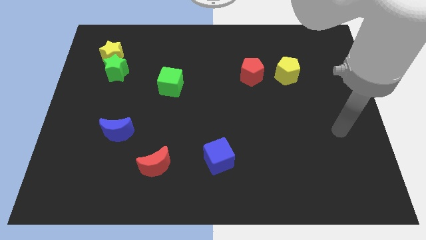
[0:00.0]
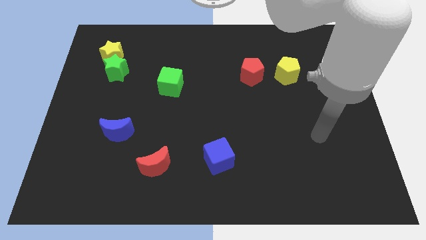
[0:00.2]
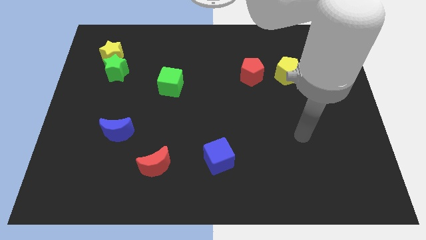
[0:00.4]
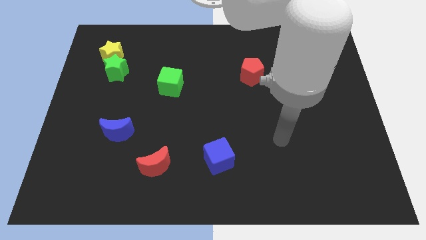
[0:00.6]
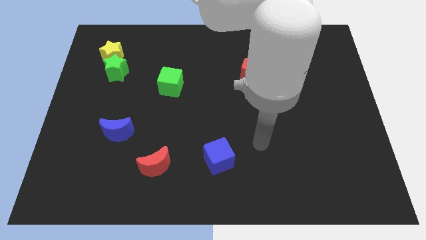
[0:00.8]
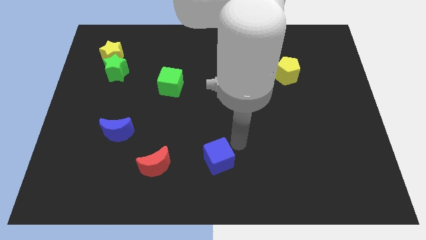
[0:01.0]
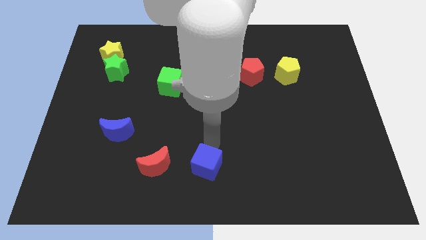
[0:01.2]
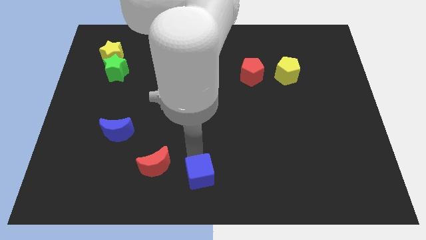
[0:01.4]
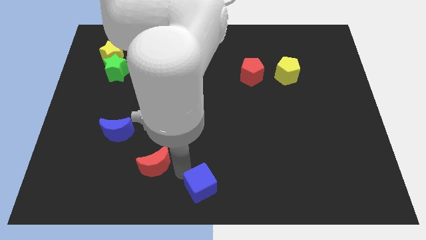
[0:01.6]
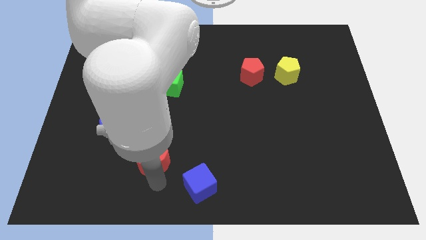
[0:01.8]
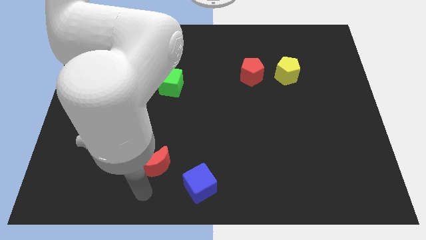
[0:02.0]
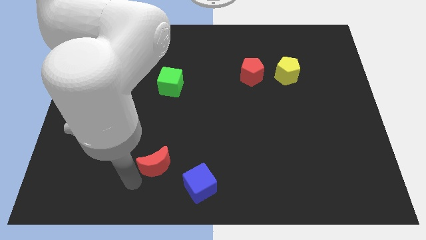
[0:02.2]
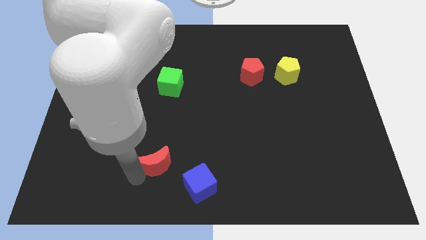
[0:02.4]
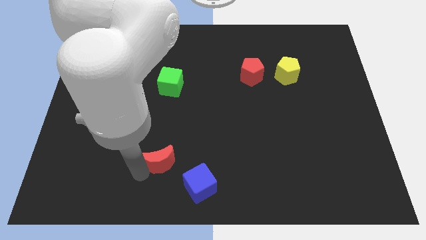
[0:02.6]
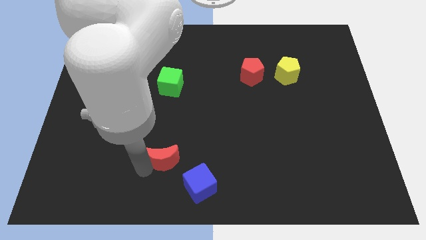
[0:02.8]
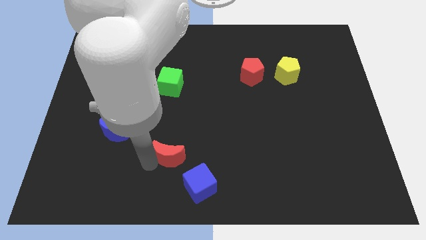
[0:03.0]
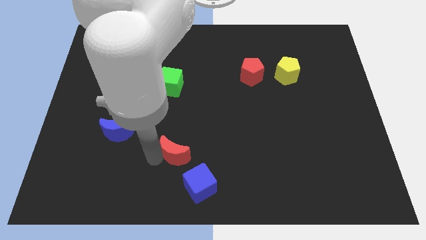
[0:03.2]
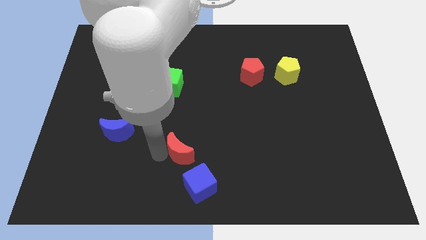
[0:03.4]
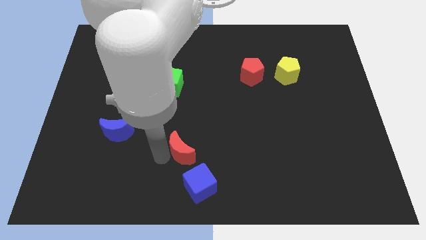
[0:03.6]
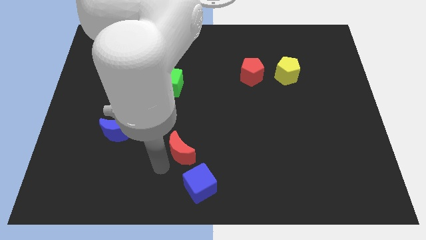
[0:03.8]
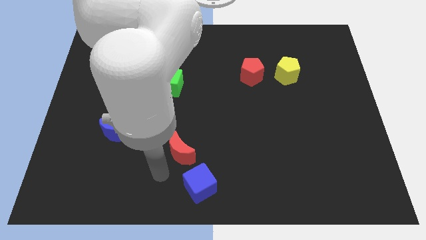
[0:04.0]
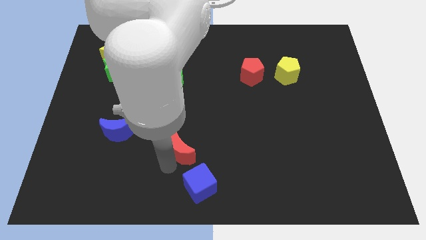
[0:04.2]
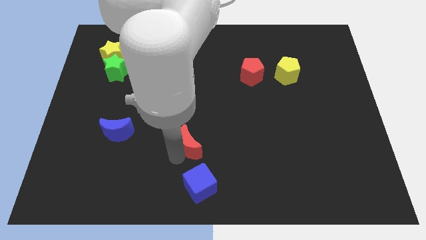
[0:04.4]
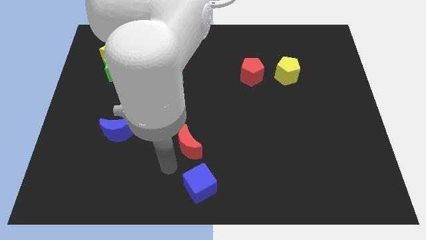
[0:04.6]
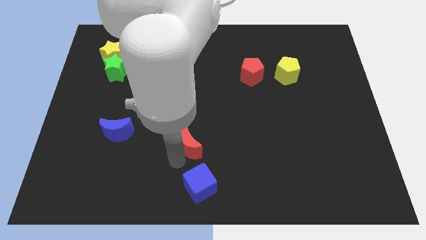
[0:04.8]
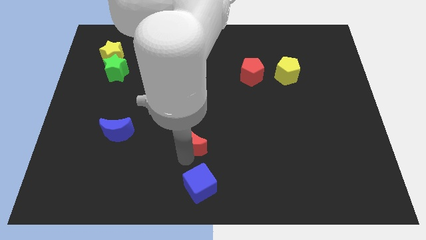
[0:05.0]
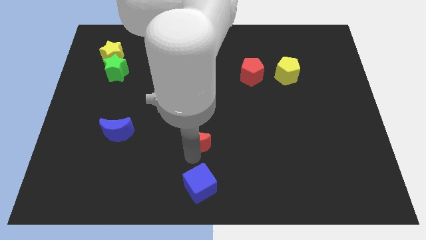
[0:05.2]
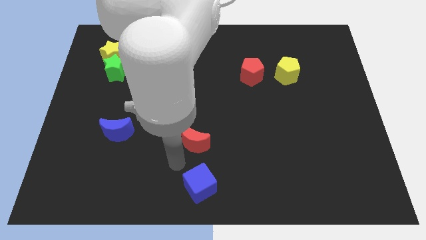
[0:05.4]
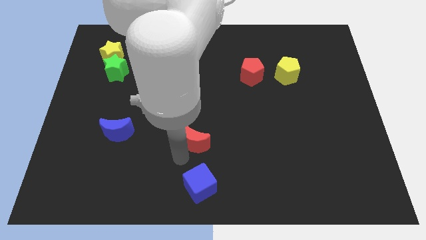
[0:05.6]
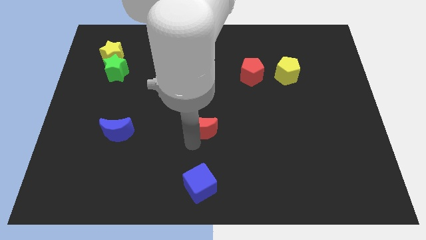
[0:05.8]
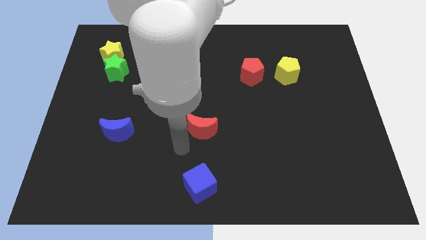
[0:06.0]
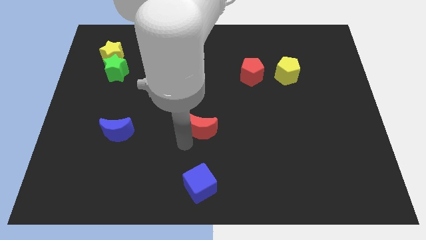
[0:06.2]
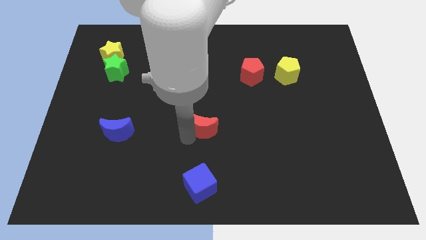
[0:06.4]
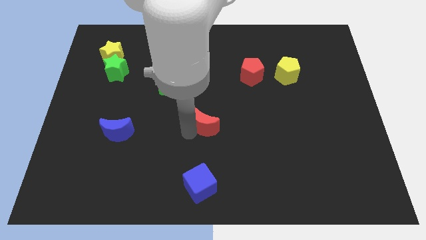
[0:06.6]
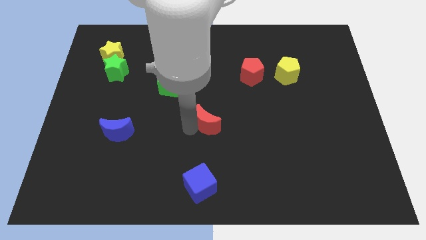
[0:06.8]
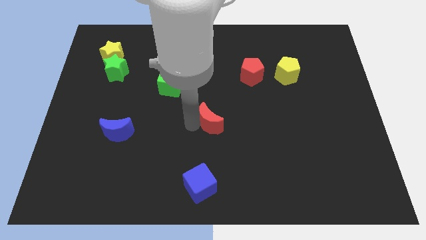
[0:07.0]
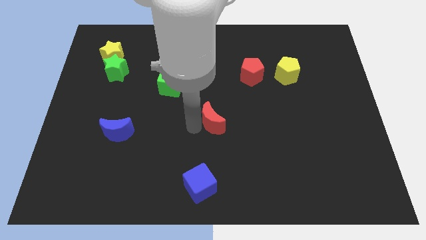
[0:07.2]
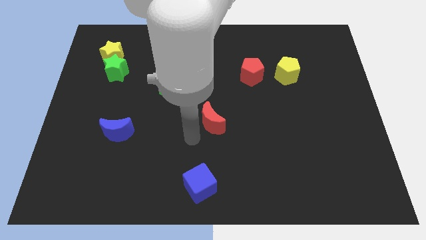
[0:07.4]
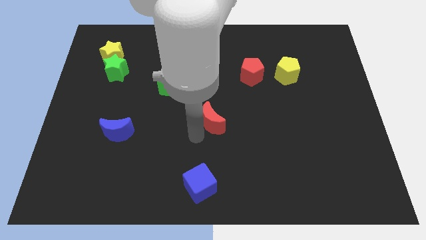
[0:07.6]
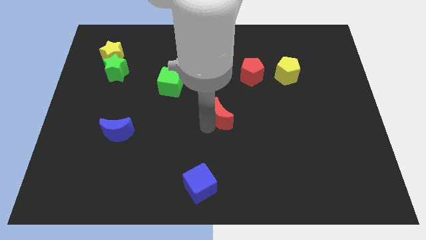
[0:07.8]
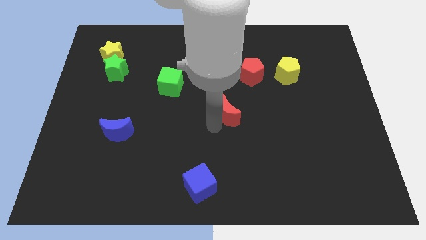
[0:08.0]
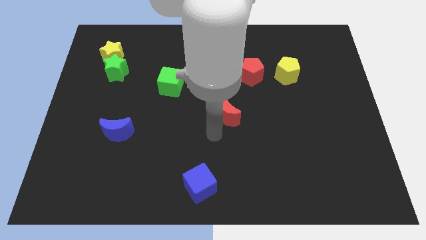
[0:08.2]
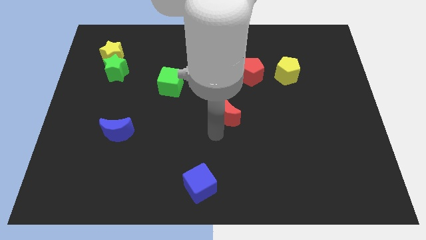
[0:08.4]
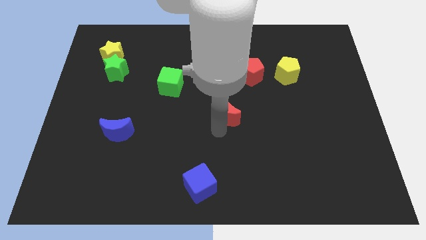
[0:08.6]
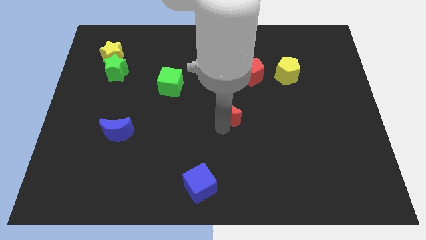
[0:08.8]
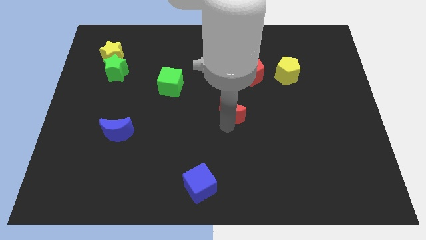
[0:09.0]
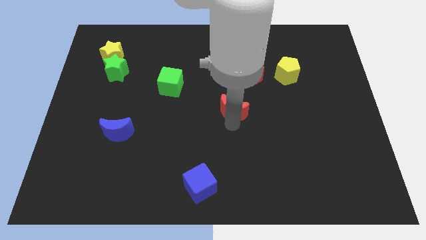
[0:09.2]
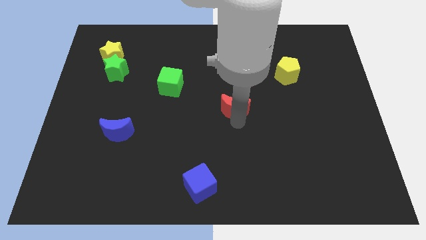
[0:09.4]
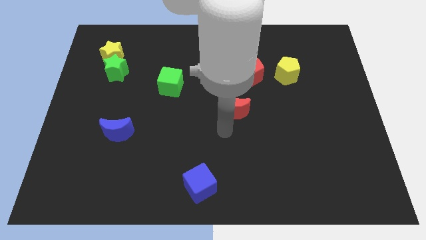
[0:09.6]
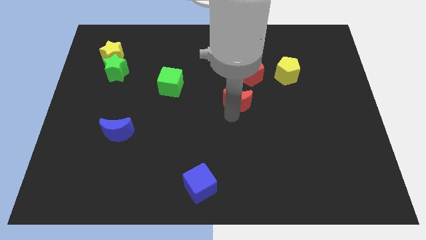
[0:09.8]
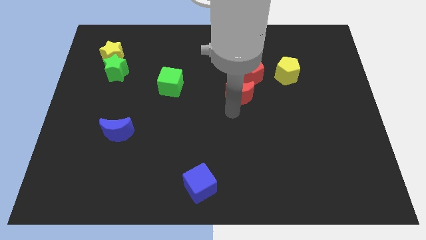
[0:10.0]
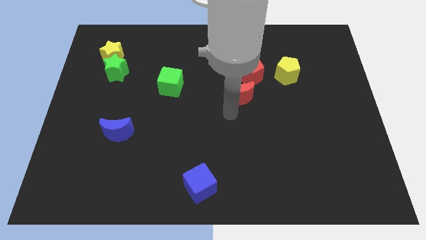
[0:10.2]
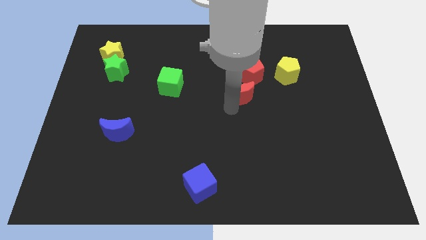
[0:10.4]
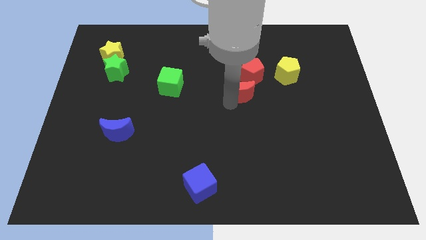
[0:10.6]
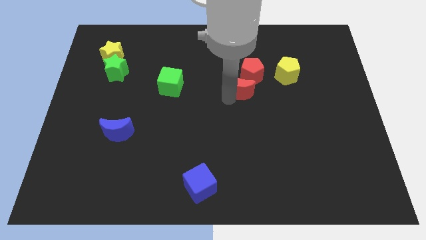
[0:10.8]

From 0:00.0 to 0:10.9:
move the red moon close to the red pentagon
